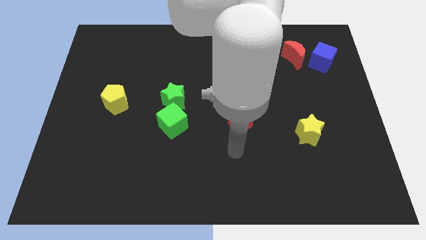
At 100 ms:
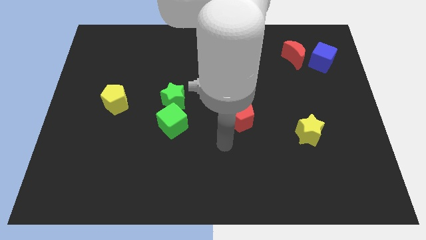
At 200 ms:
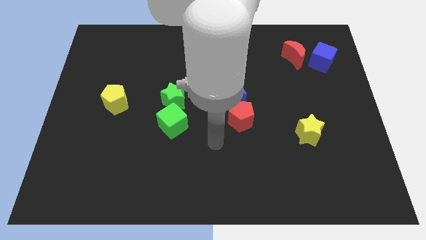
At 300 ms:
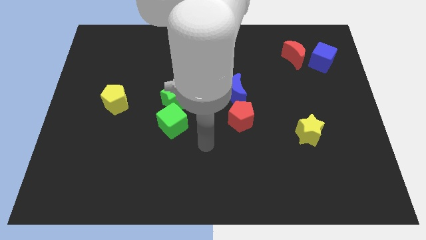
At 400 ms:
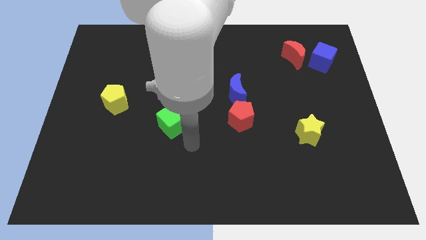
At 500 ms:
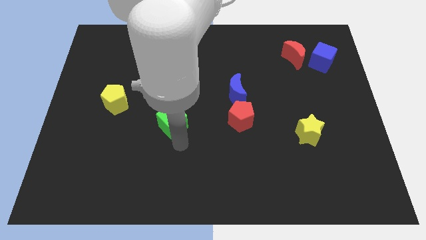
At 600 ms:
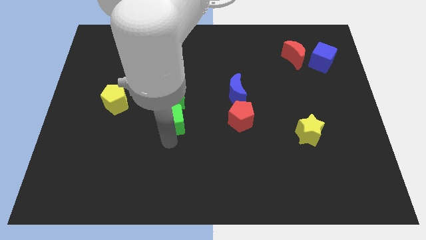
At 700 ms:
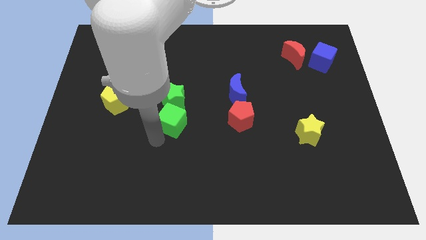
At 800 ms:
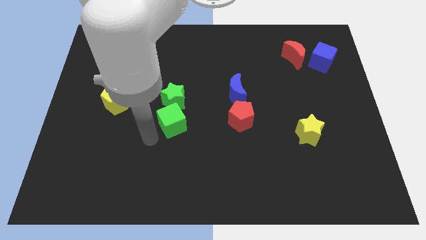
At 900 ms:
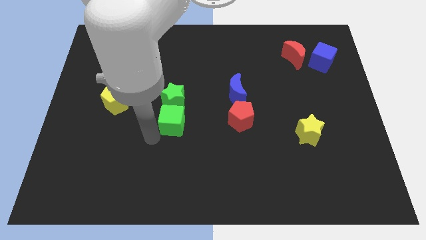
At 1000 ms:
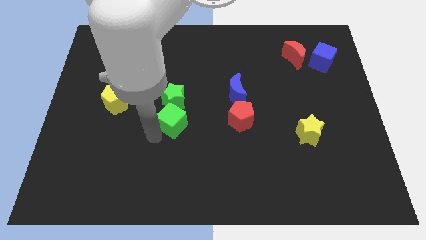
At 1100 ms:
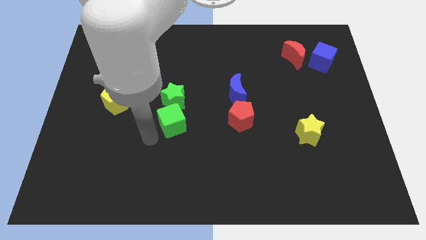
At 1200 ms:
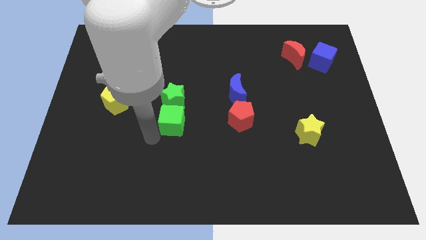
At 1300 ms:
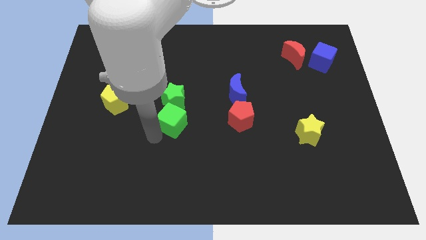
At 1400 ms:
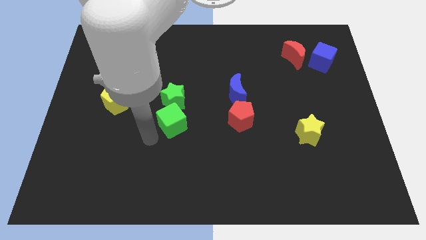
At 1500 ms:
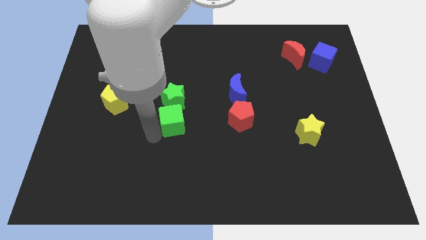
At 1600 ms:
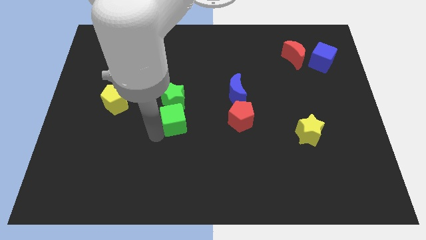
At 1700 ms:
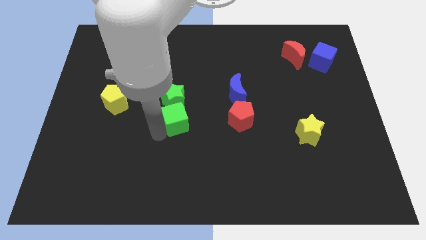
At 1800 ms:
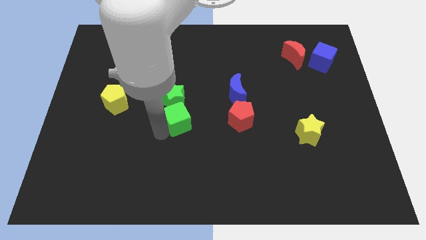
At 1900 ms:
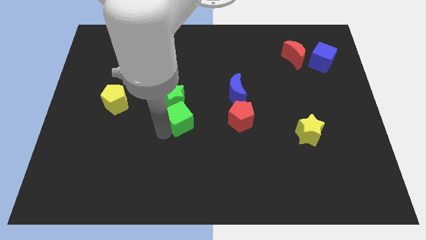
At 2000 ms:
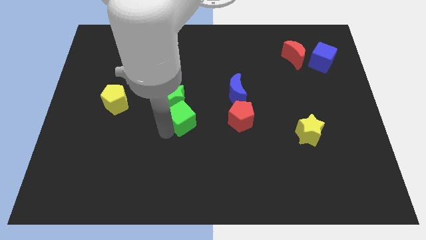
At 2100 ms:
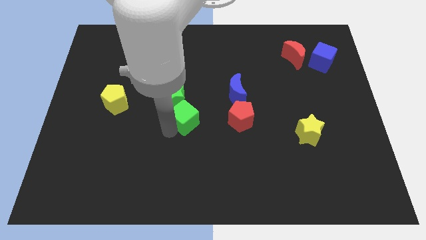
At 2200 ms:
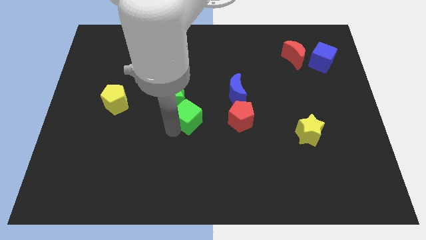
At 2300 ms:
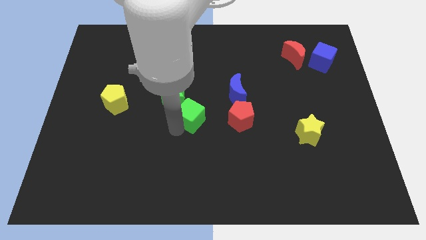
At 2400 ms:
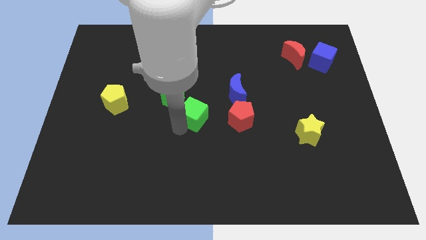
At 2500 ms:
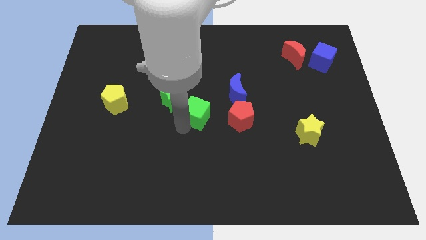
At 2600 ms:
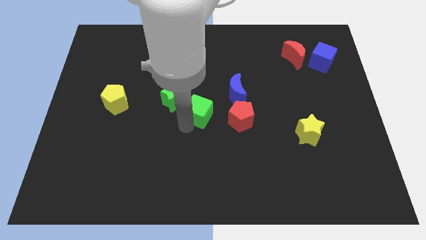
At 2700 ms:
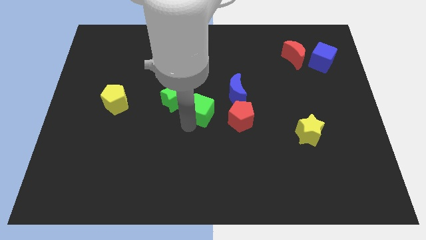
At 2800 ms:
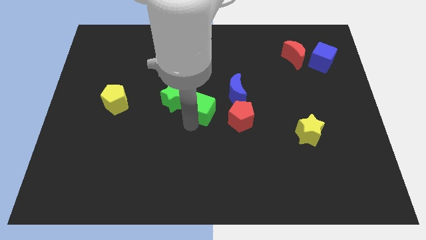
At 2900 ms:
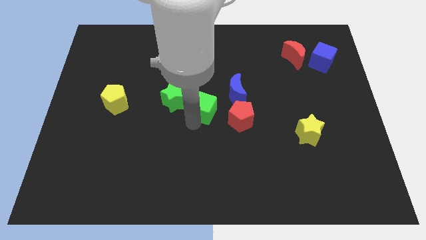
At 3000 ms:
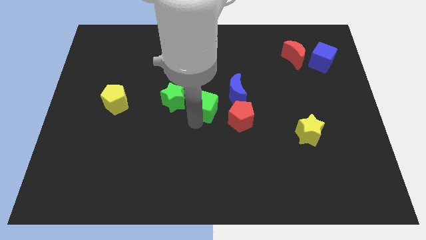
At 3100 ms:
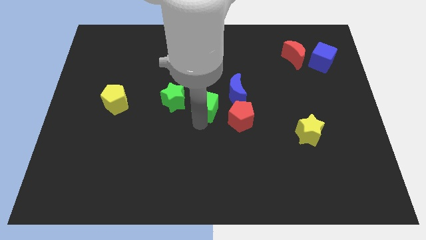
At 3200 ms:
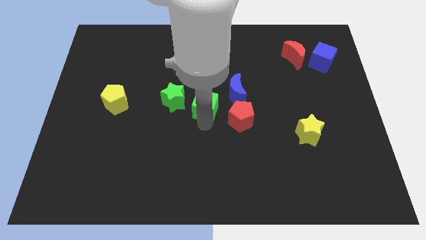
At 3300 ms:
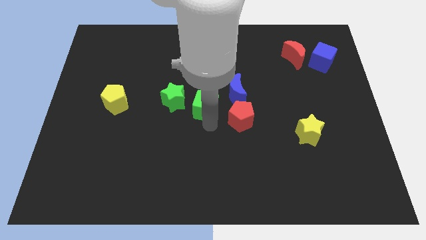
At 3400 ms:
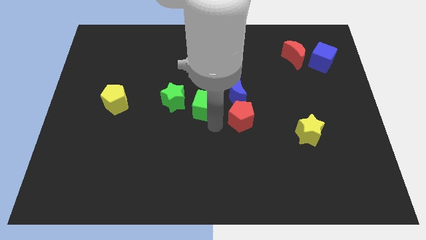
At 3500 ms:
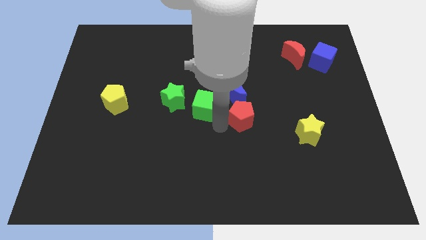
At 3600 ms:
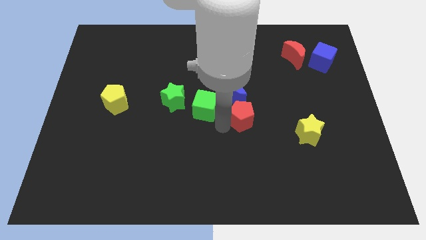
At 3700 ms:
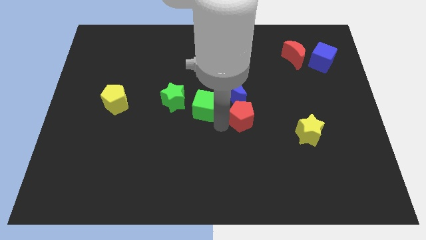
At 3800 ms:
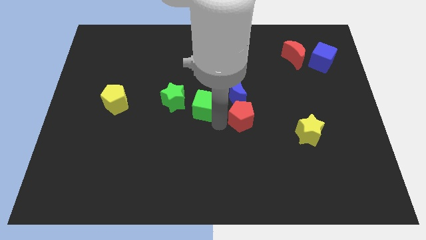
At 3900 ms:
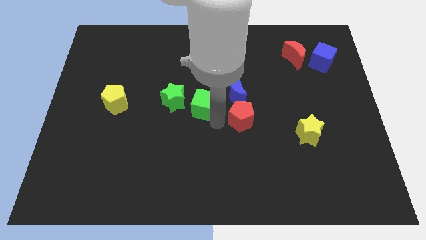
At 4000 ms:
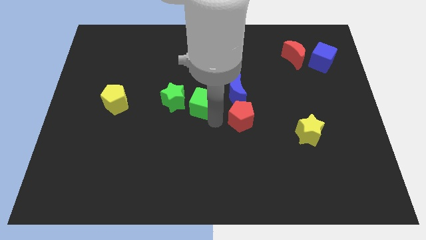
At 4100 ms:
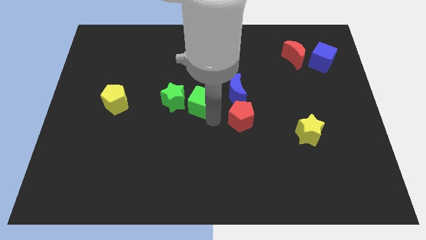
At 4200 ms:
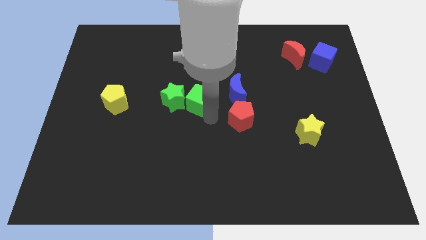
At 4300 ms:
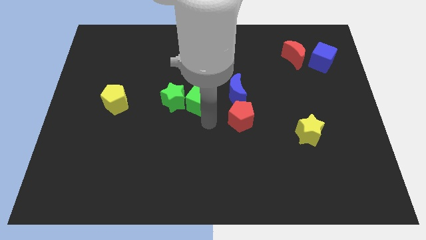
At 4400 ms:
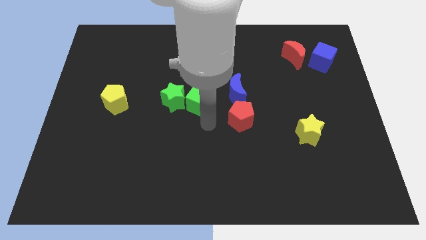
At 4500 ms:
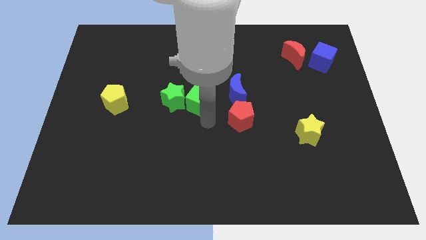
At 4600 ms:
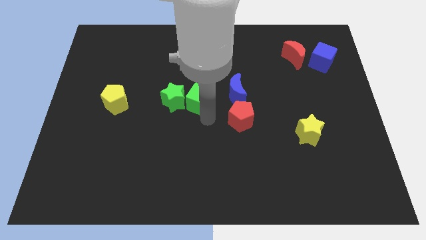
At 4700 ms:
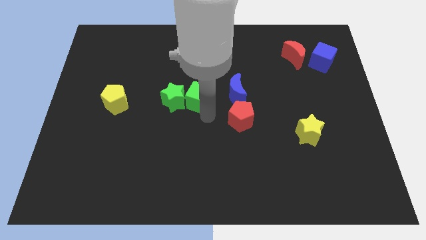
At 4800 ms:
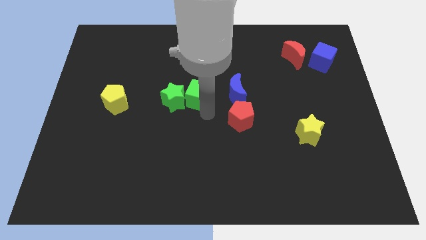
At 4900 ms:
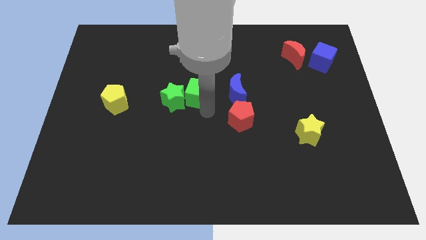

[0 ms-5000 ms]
move the green cube upwards a bit

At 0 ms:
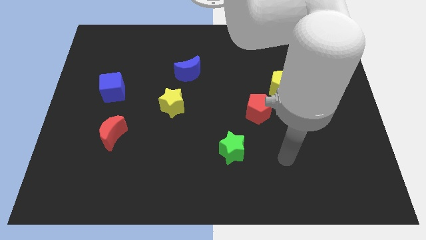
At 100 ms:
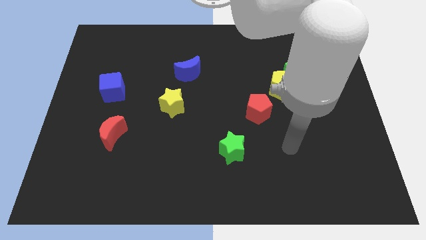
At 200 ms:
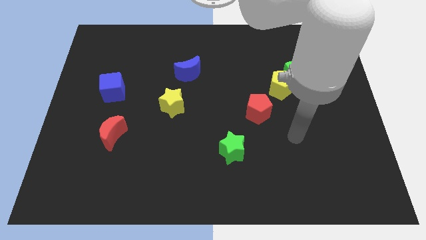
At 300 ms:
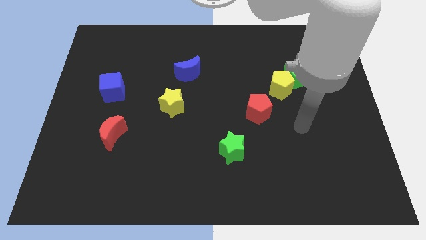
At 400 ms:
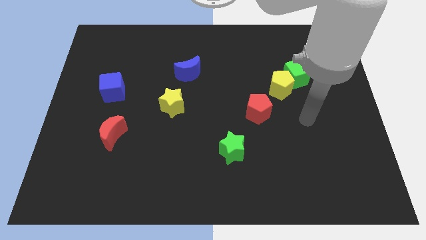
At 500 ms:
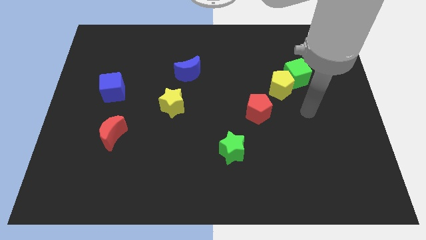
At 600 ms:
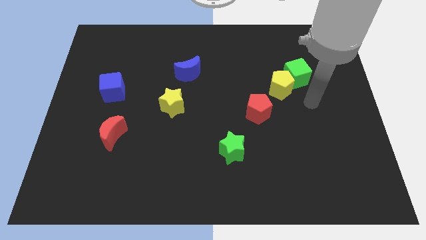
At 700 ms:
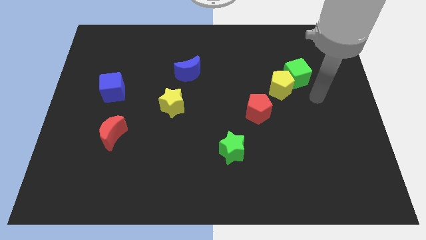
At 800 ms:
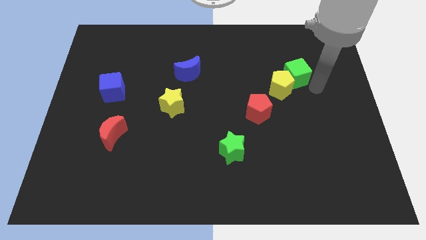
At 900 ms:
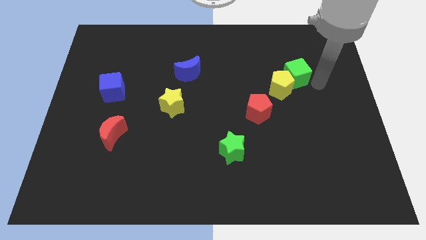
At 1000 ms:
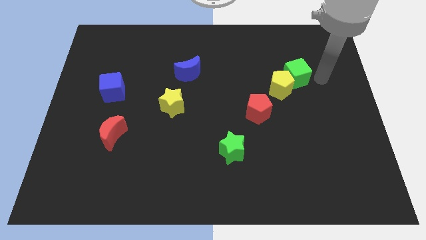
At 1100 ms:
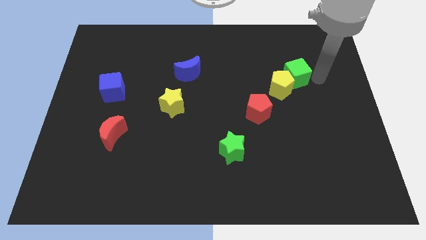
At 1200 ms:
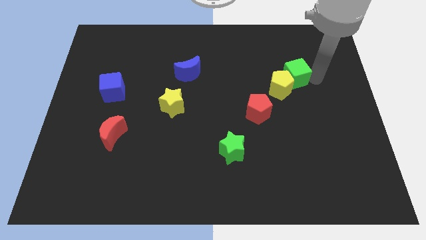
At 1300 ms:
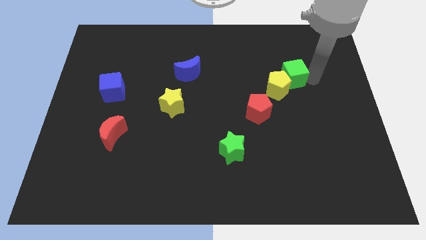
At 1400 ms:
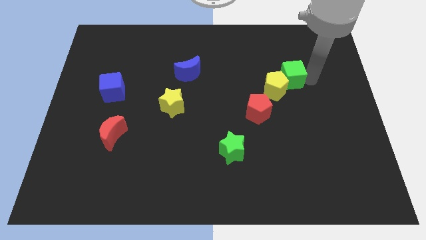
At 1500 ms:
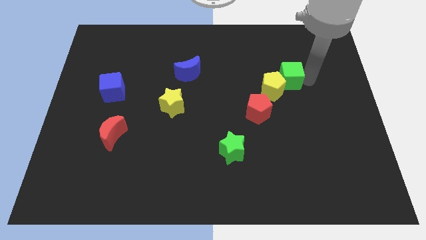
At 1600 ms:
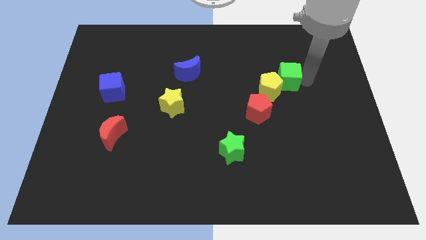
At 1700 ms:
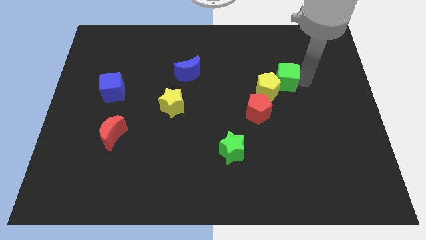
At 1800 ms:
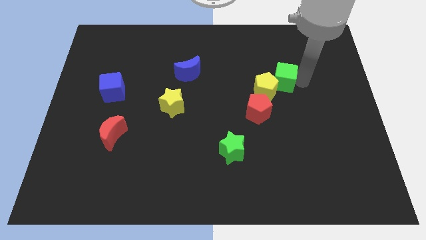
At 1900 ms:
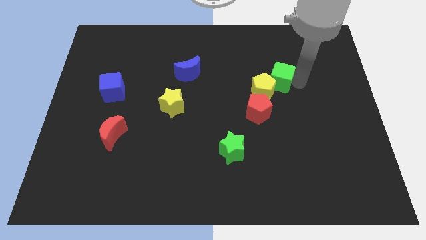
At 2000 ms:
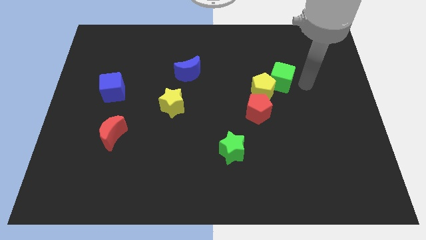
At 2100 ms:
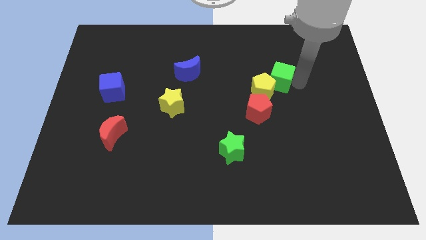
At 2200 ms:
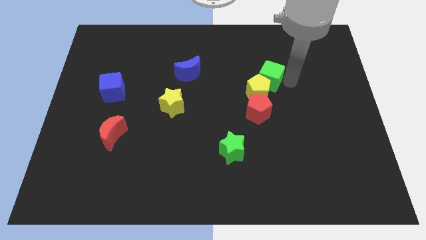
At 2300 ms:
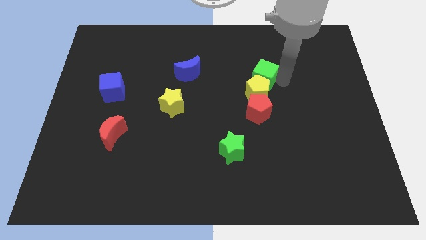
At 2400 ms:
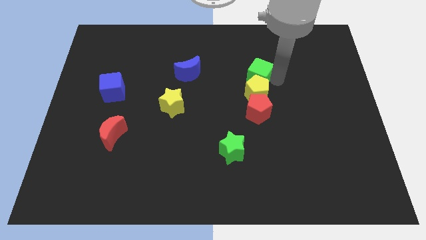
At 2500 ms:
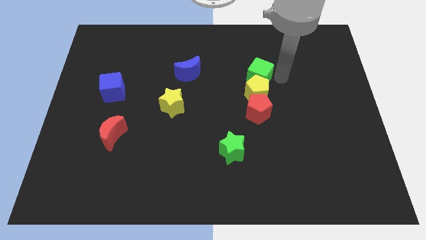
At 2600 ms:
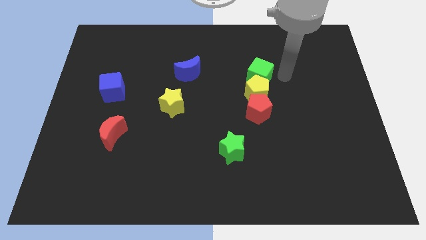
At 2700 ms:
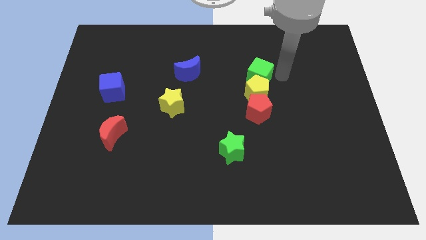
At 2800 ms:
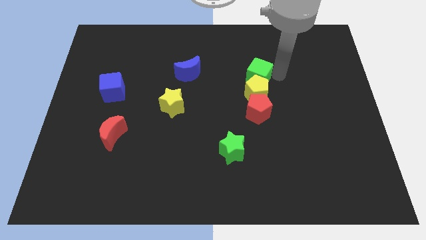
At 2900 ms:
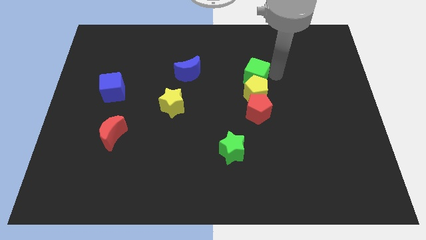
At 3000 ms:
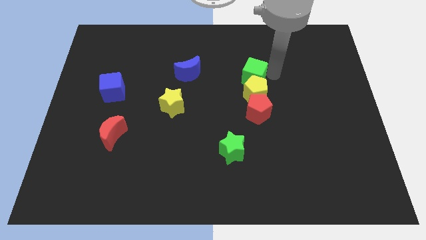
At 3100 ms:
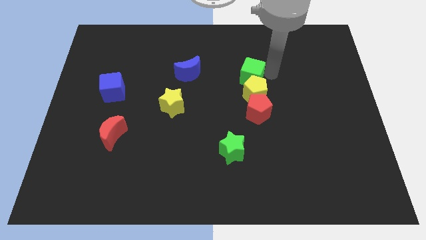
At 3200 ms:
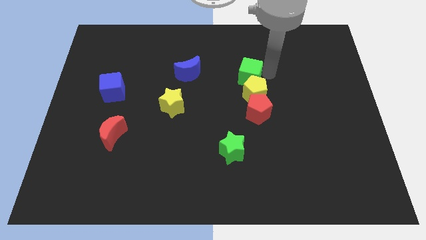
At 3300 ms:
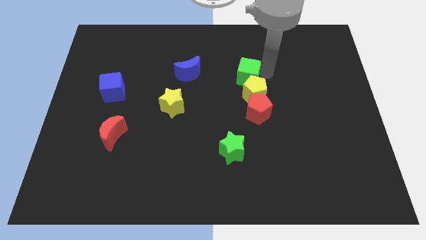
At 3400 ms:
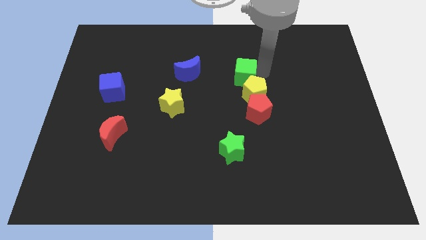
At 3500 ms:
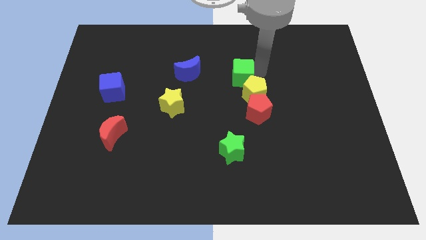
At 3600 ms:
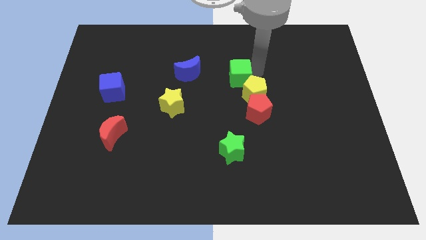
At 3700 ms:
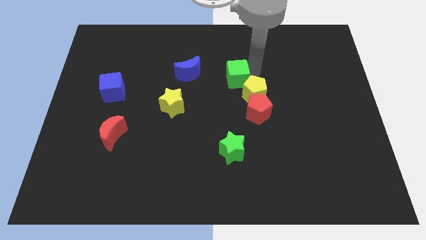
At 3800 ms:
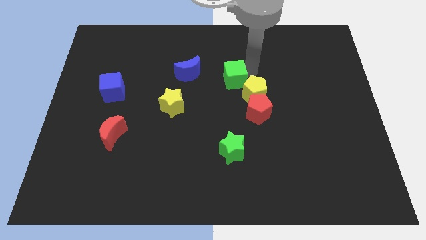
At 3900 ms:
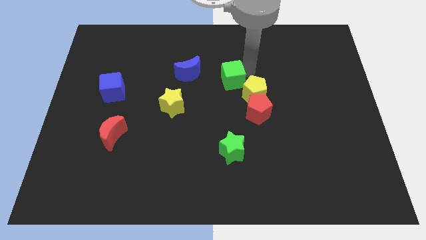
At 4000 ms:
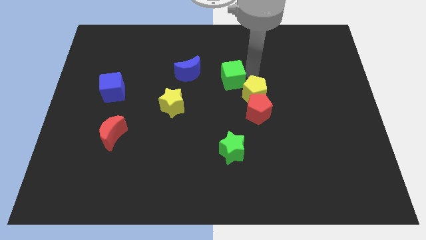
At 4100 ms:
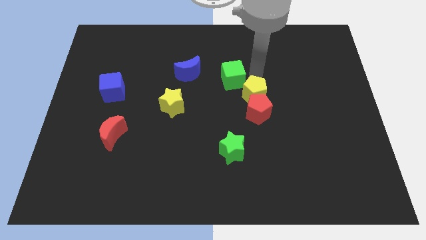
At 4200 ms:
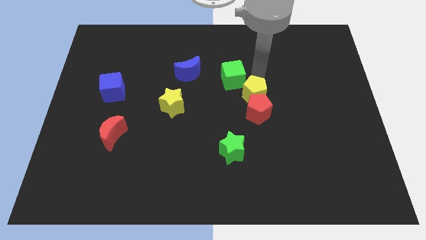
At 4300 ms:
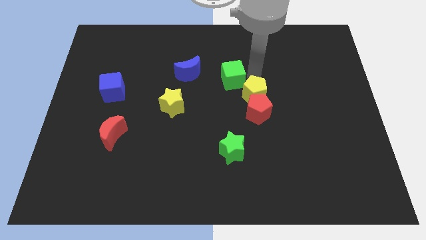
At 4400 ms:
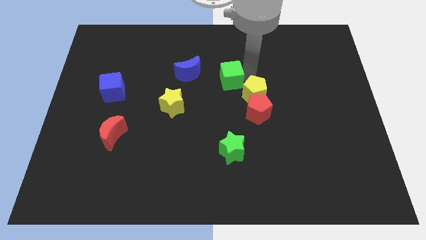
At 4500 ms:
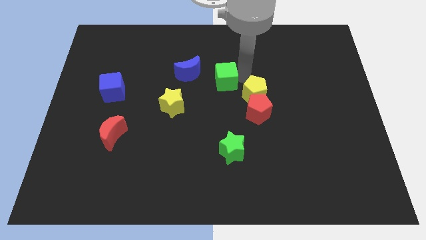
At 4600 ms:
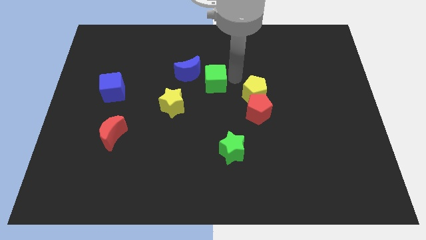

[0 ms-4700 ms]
slide the green cube left
